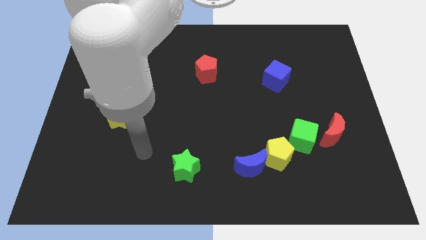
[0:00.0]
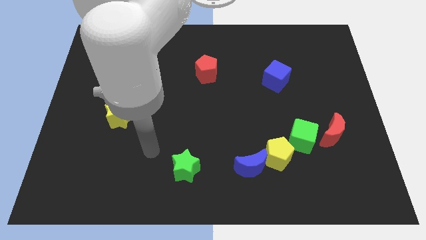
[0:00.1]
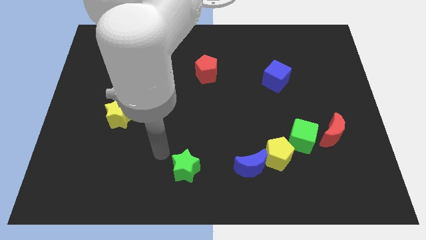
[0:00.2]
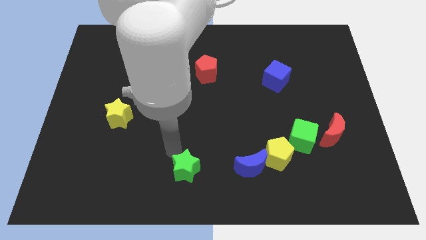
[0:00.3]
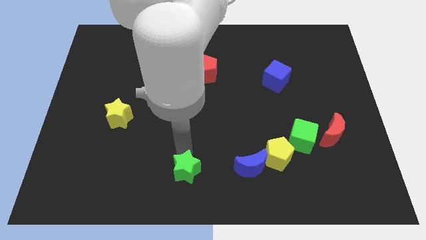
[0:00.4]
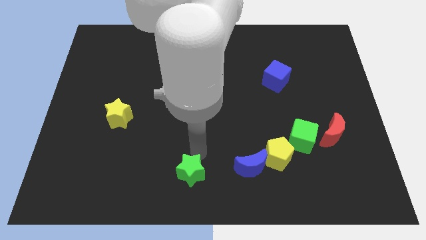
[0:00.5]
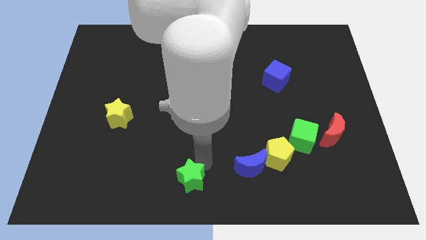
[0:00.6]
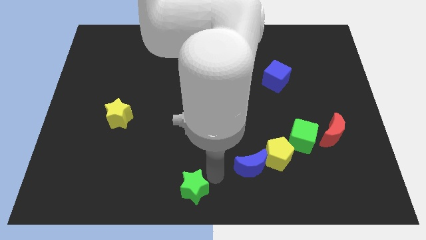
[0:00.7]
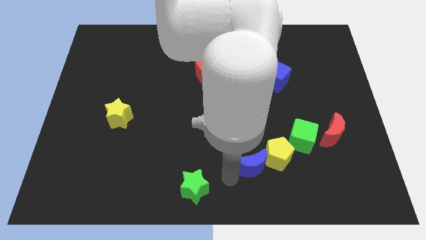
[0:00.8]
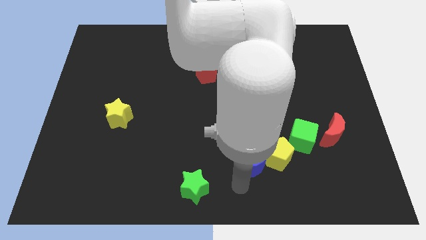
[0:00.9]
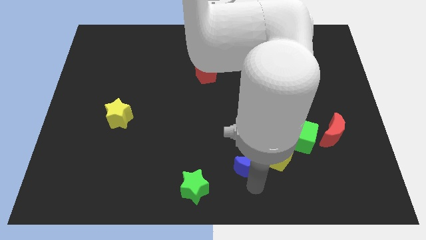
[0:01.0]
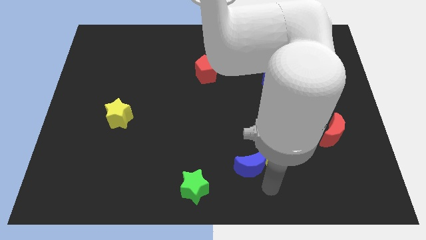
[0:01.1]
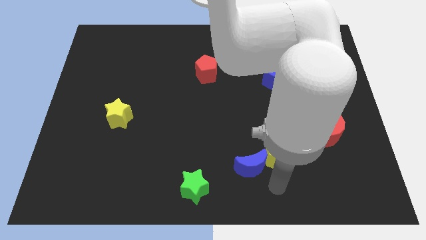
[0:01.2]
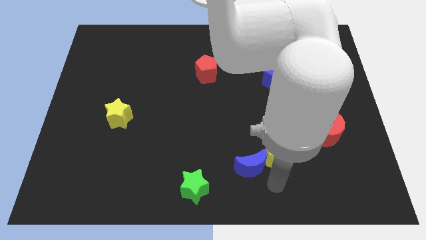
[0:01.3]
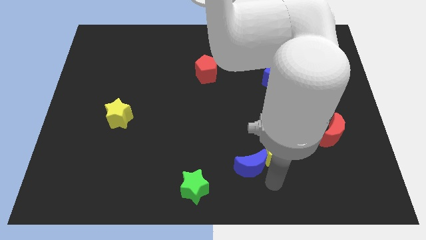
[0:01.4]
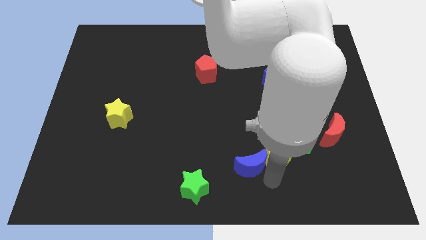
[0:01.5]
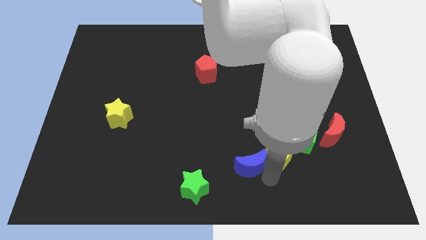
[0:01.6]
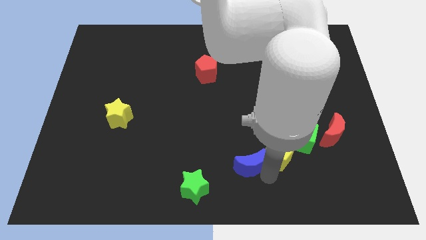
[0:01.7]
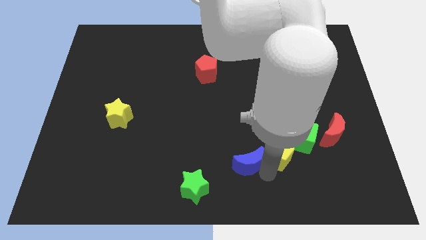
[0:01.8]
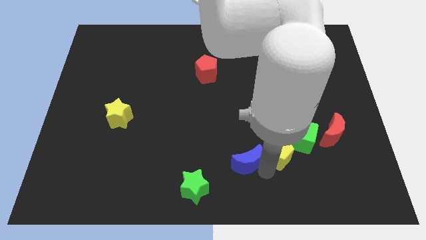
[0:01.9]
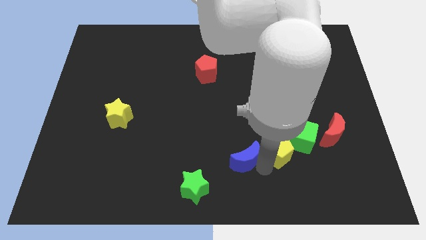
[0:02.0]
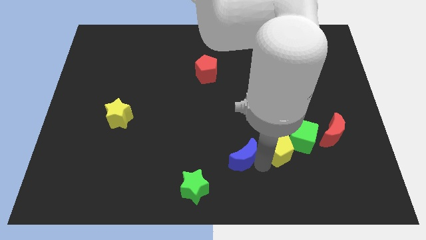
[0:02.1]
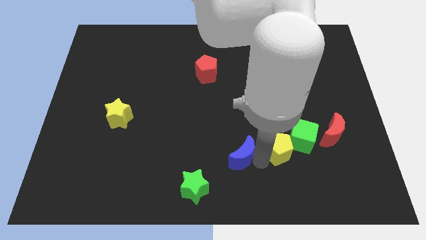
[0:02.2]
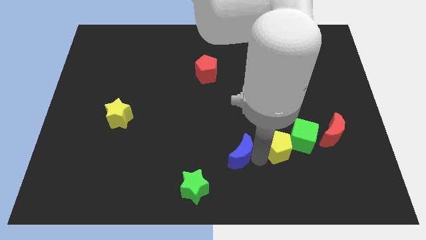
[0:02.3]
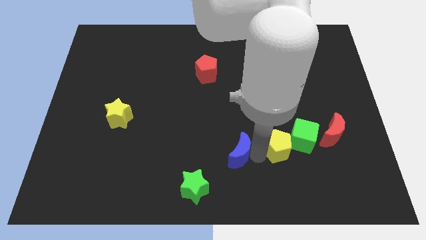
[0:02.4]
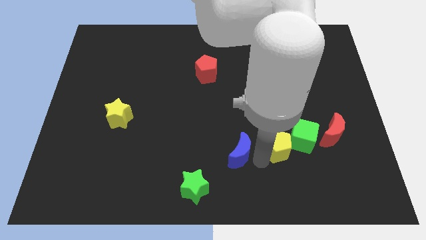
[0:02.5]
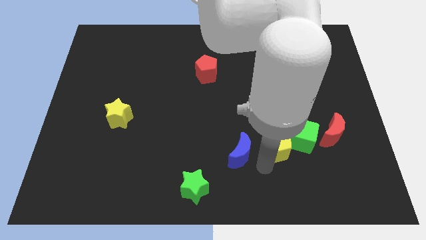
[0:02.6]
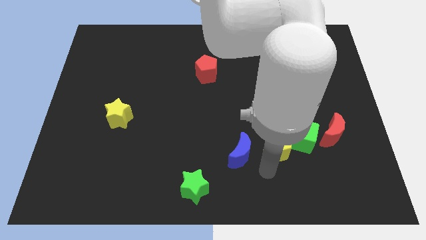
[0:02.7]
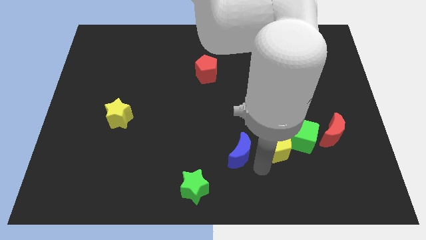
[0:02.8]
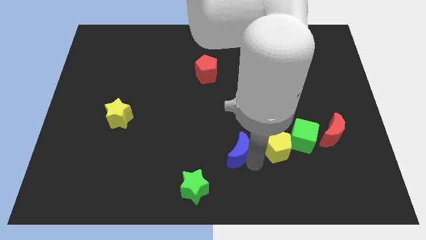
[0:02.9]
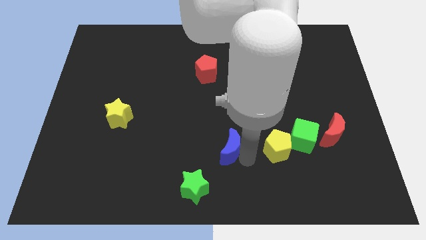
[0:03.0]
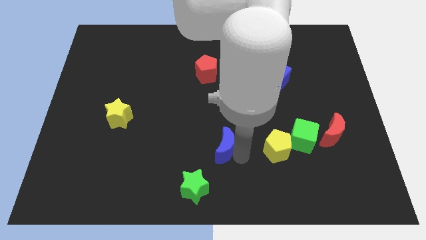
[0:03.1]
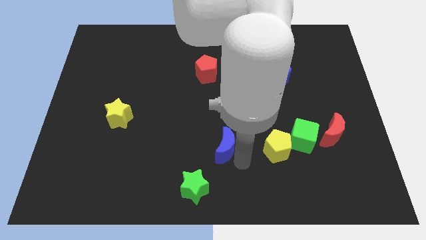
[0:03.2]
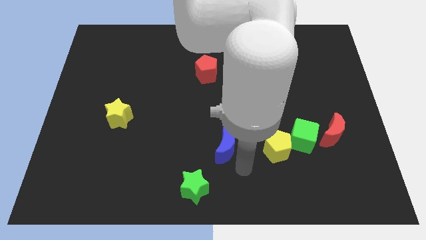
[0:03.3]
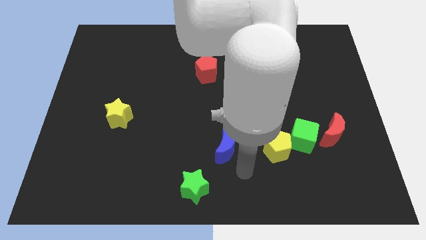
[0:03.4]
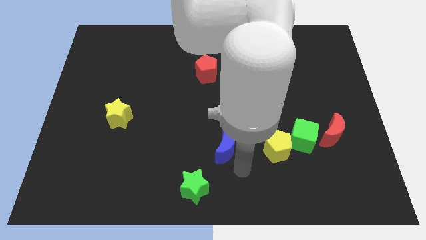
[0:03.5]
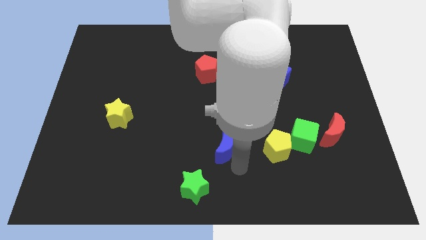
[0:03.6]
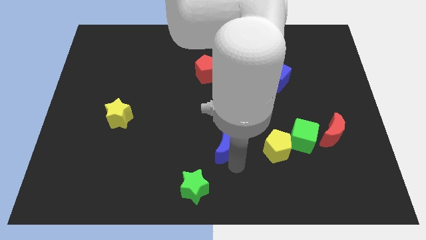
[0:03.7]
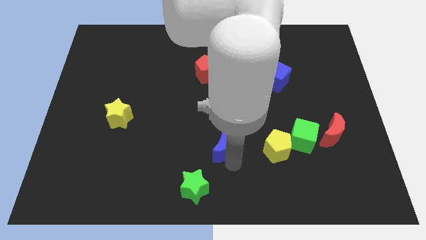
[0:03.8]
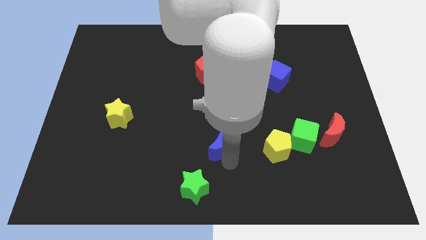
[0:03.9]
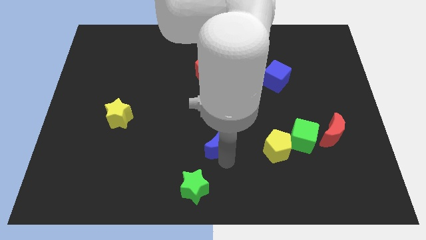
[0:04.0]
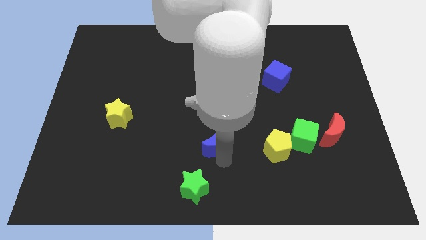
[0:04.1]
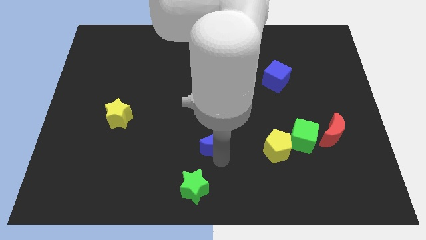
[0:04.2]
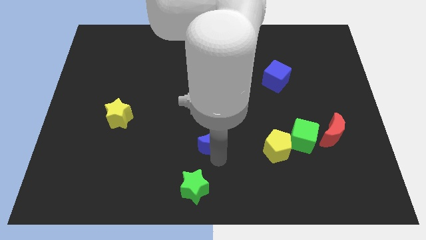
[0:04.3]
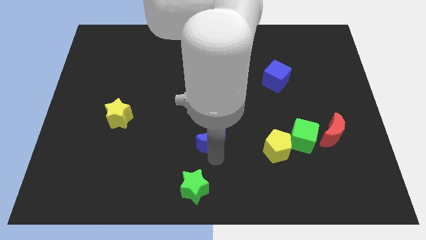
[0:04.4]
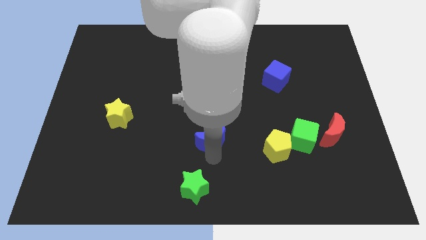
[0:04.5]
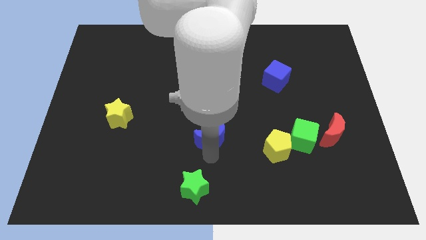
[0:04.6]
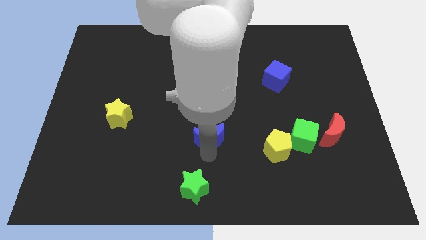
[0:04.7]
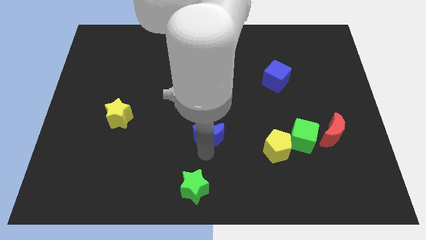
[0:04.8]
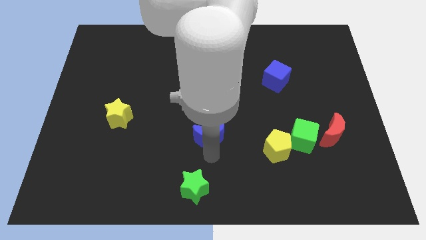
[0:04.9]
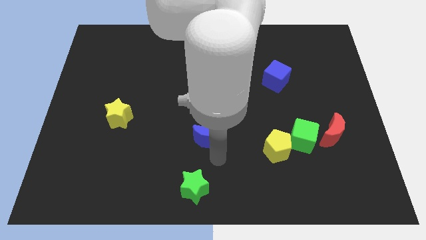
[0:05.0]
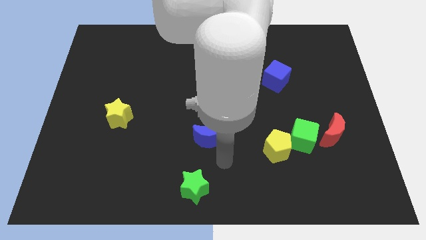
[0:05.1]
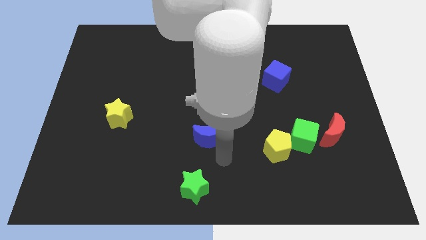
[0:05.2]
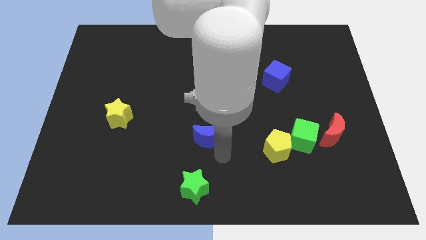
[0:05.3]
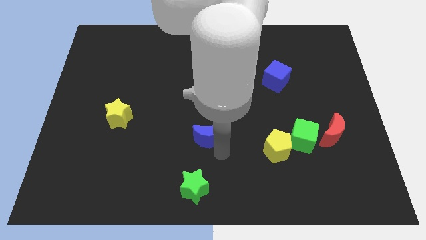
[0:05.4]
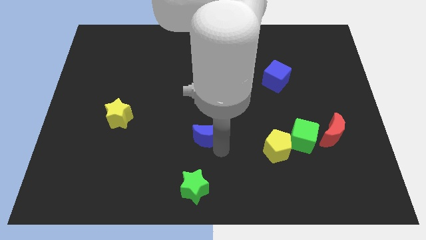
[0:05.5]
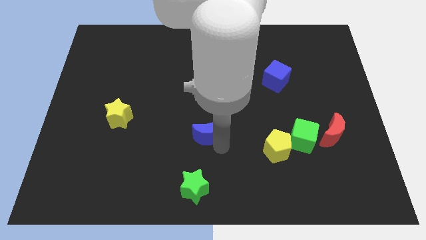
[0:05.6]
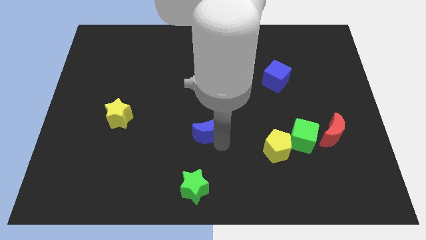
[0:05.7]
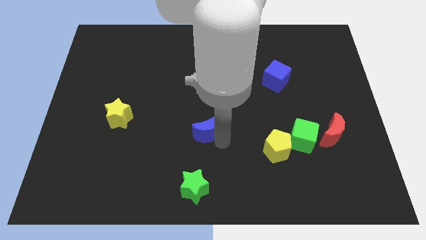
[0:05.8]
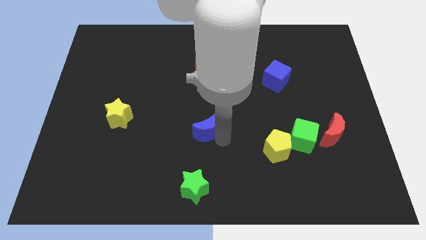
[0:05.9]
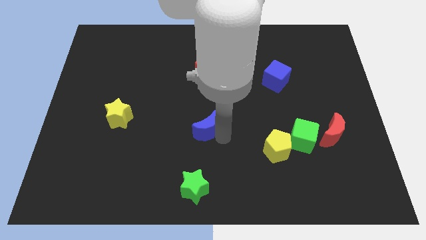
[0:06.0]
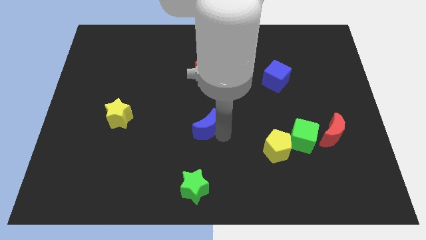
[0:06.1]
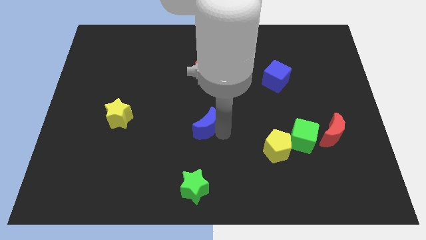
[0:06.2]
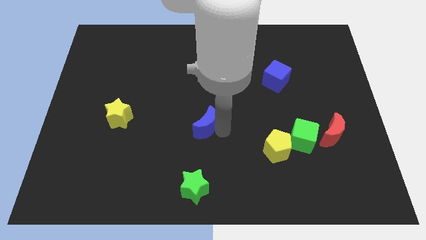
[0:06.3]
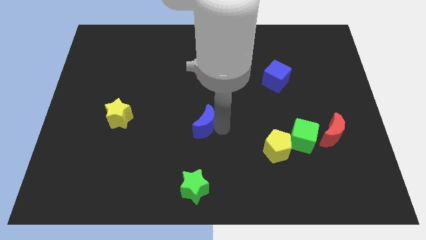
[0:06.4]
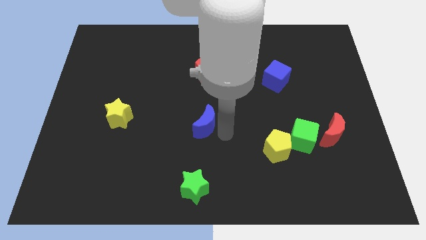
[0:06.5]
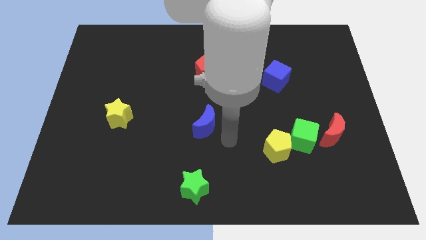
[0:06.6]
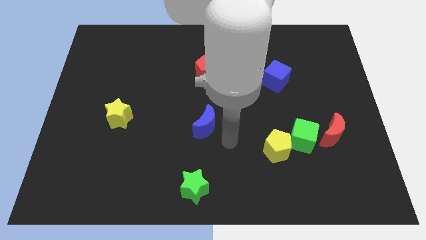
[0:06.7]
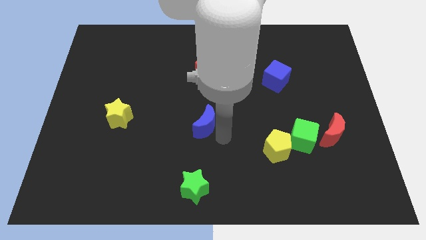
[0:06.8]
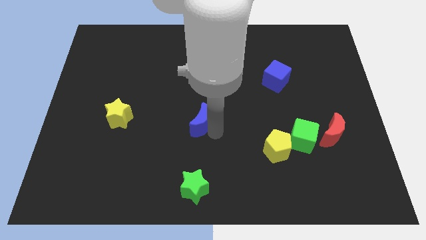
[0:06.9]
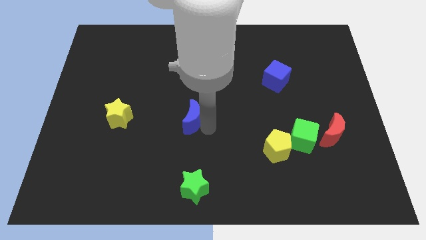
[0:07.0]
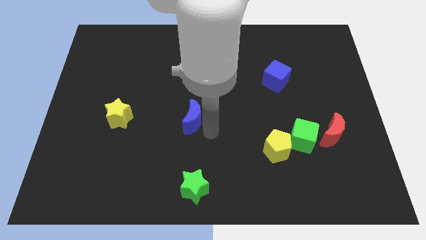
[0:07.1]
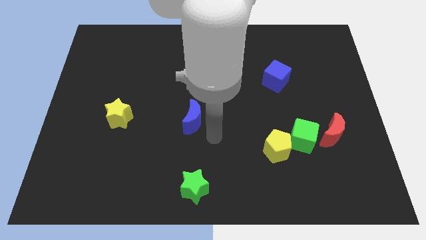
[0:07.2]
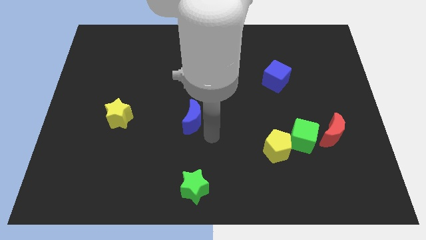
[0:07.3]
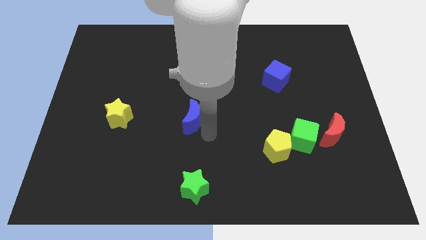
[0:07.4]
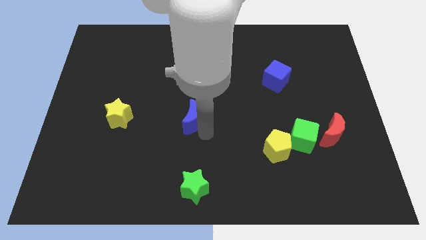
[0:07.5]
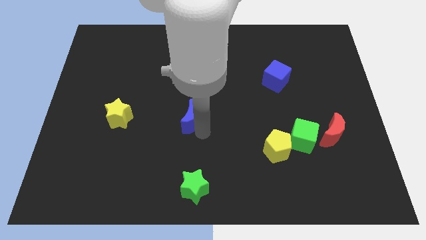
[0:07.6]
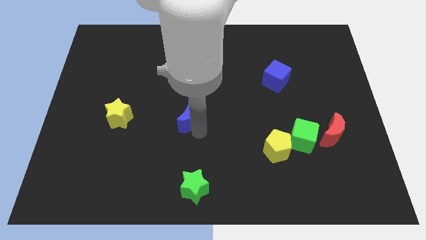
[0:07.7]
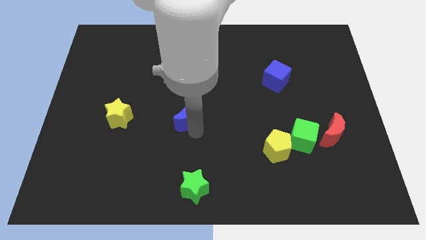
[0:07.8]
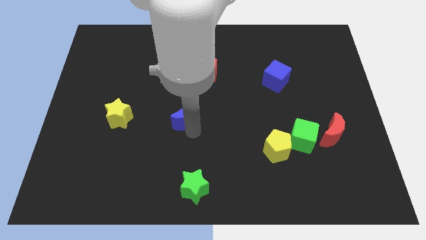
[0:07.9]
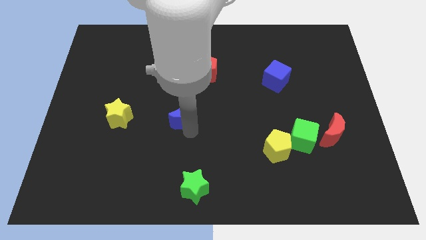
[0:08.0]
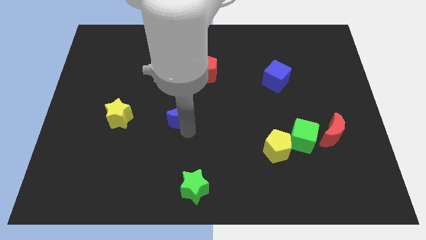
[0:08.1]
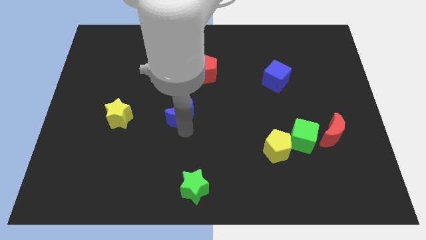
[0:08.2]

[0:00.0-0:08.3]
move the blue moon up and then left
